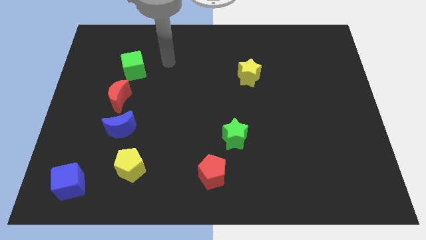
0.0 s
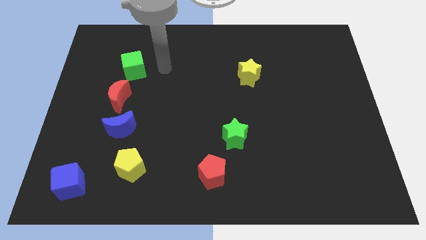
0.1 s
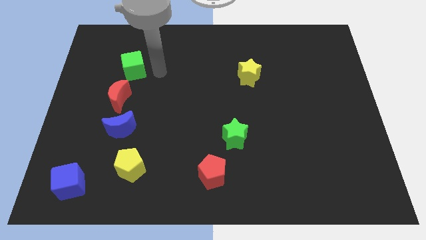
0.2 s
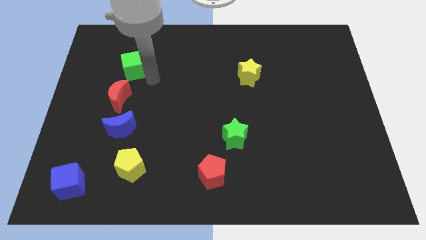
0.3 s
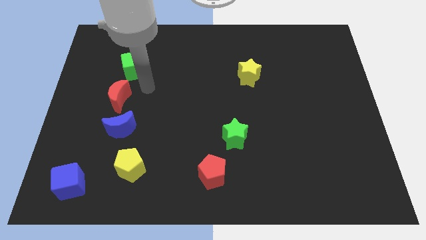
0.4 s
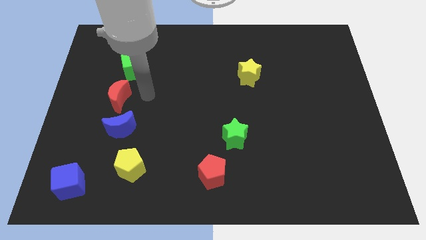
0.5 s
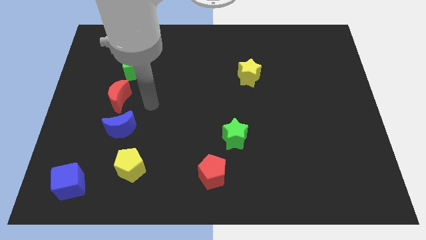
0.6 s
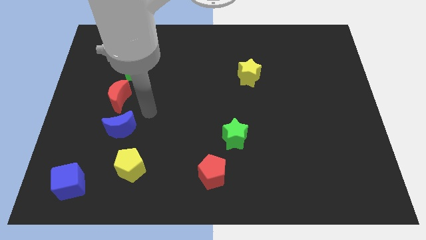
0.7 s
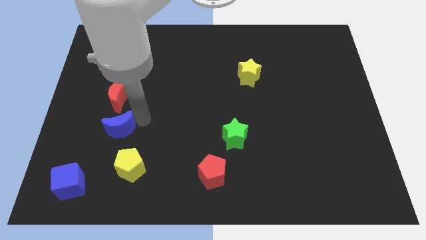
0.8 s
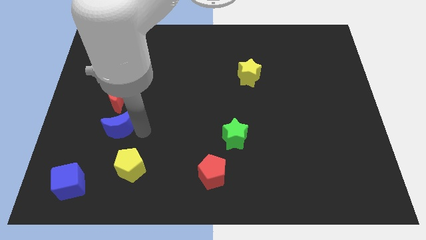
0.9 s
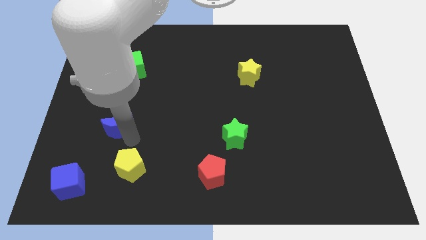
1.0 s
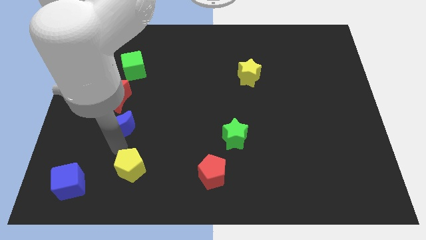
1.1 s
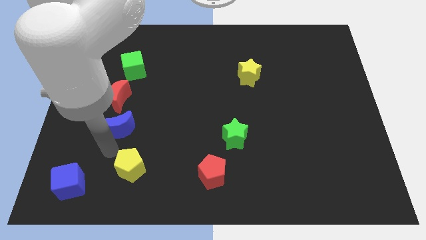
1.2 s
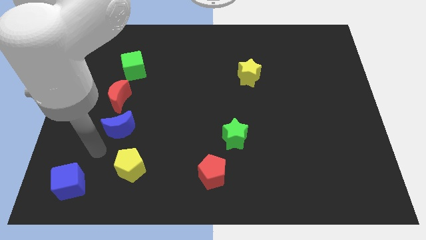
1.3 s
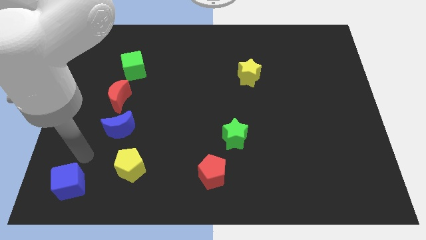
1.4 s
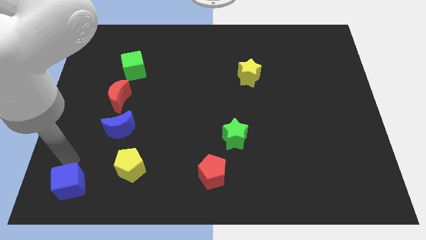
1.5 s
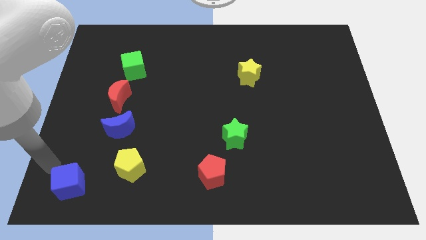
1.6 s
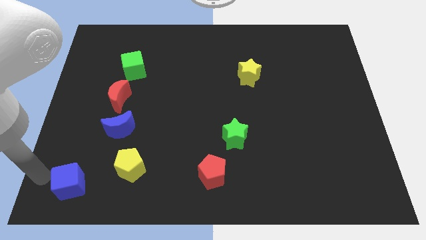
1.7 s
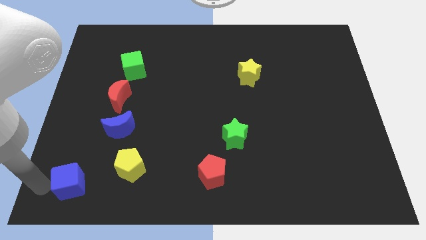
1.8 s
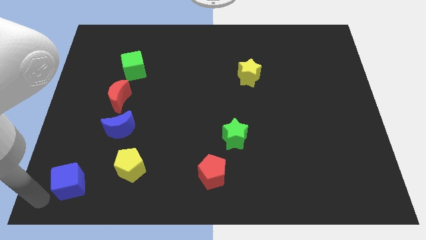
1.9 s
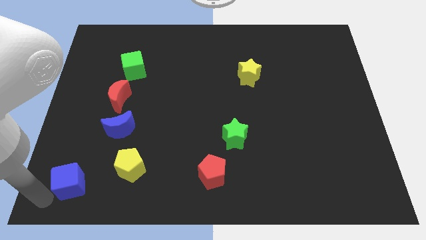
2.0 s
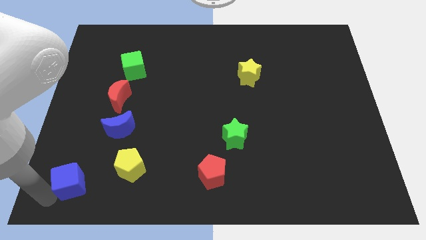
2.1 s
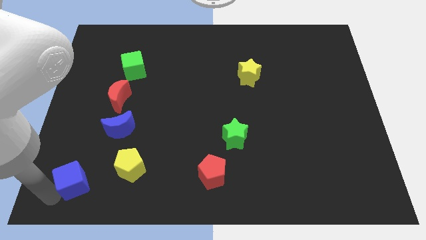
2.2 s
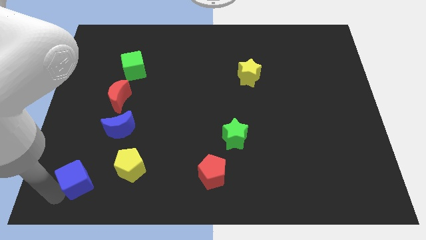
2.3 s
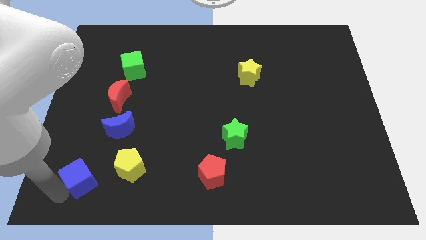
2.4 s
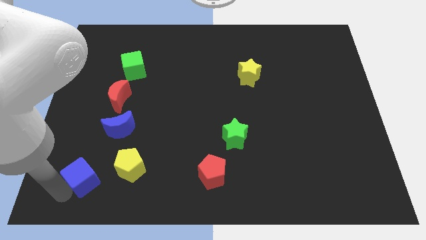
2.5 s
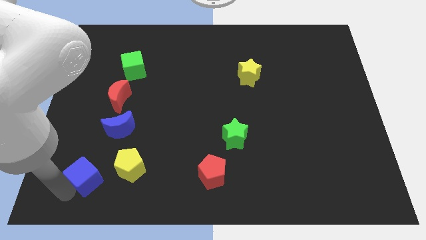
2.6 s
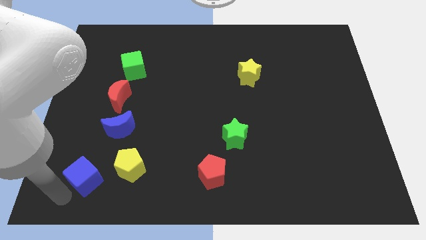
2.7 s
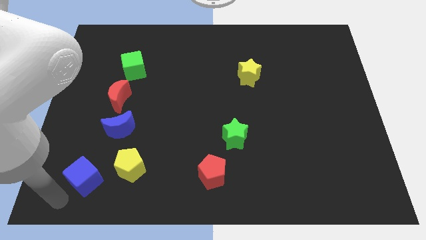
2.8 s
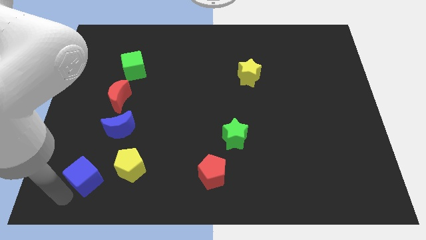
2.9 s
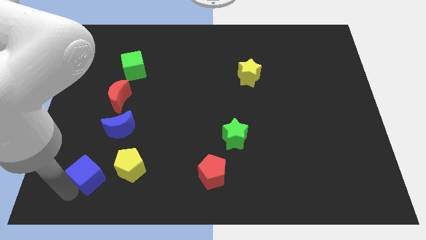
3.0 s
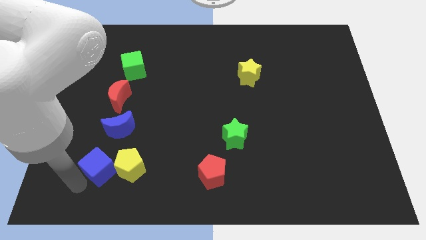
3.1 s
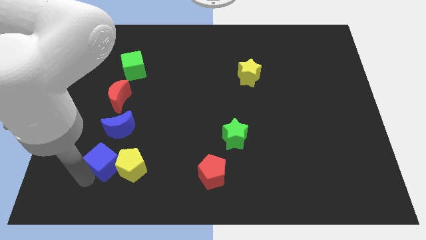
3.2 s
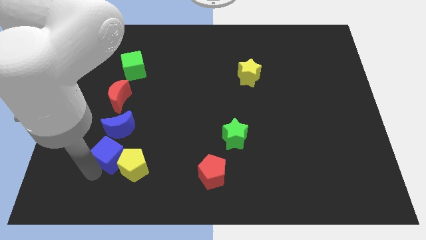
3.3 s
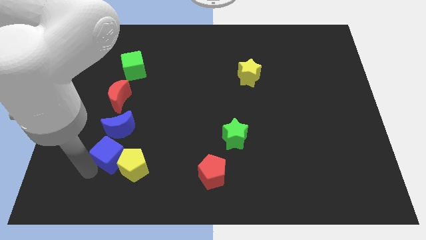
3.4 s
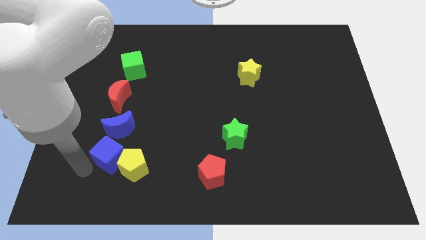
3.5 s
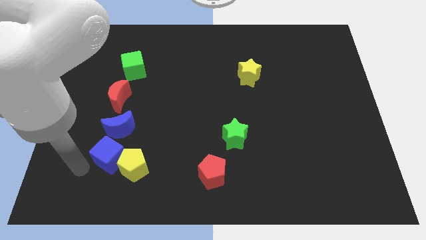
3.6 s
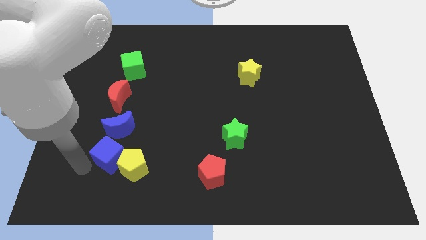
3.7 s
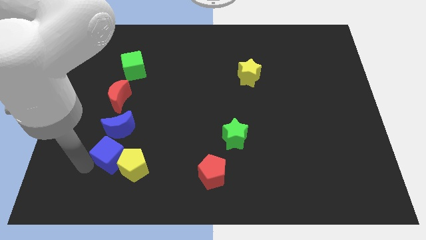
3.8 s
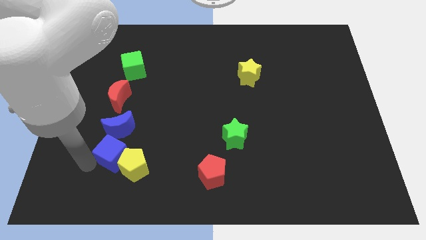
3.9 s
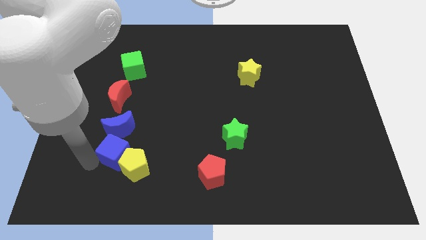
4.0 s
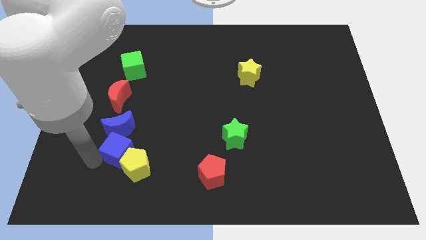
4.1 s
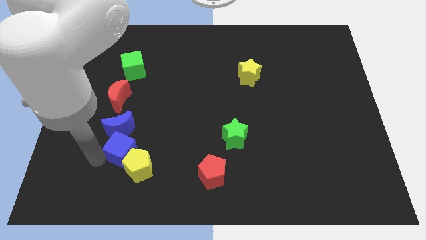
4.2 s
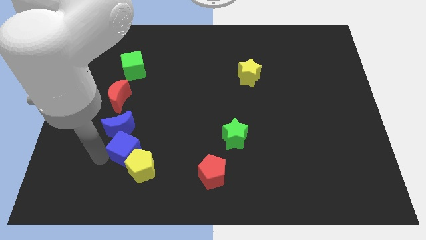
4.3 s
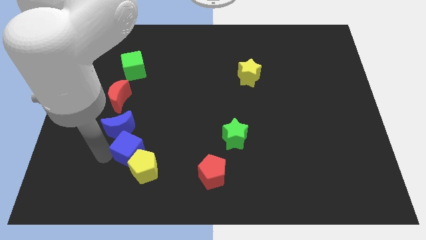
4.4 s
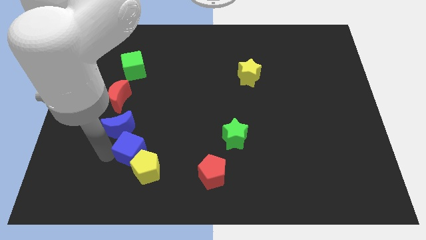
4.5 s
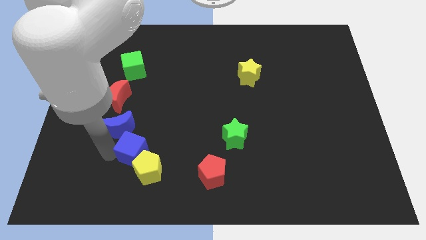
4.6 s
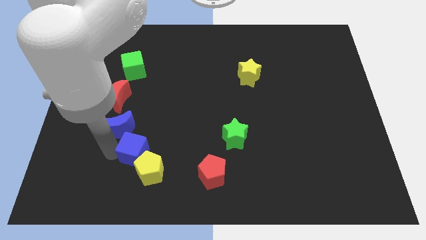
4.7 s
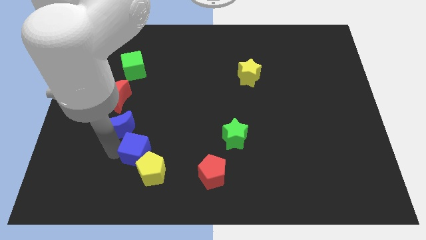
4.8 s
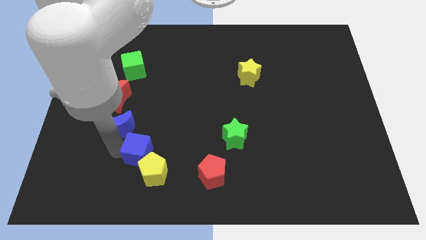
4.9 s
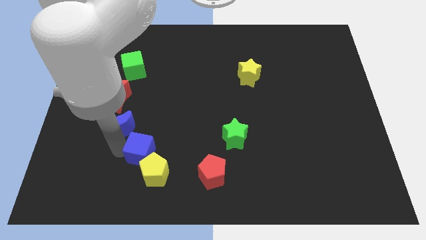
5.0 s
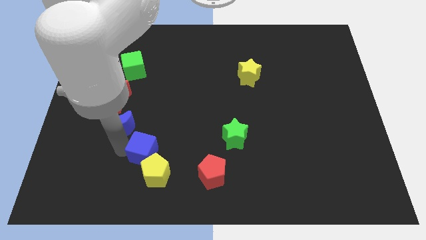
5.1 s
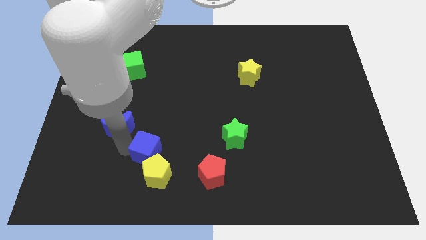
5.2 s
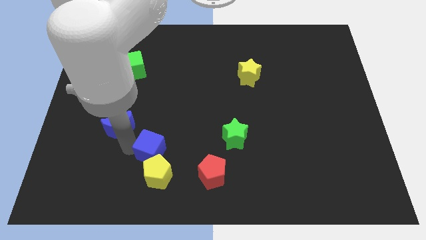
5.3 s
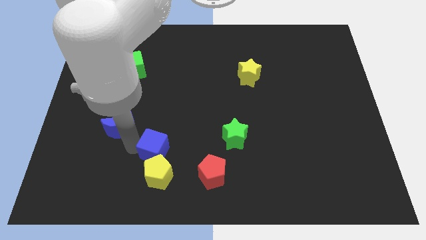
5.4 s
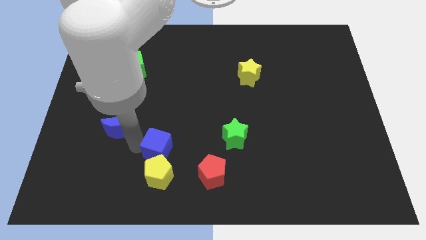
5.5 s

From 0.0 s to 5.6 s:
put the blue cube right of the blue moon

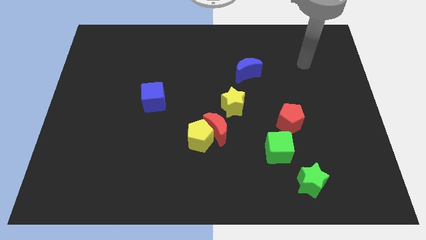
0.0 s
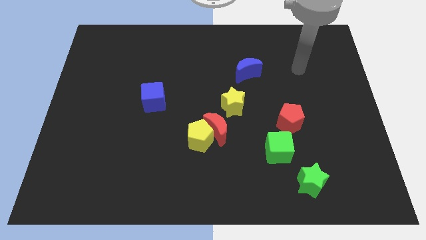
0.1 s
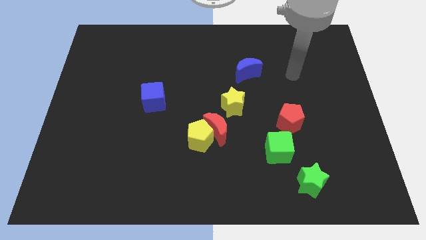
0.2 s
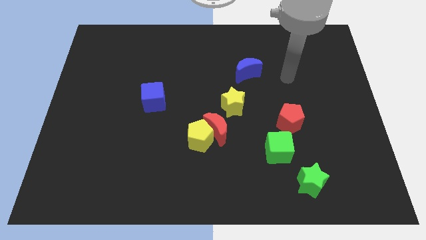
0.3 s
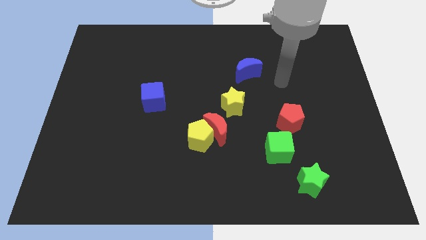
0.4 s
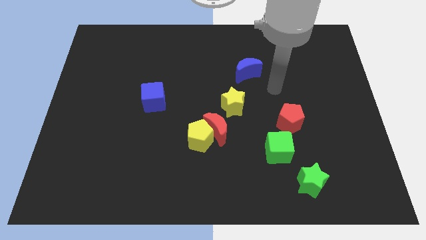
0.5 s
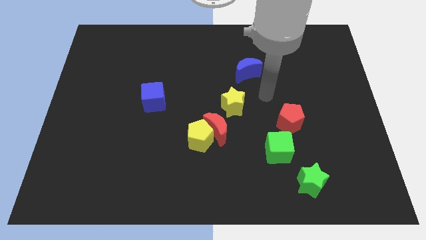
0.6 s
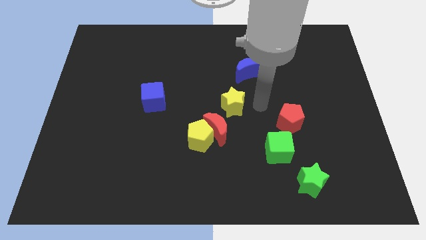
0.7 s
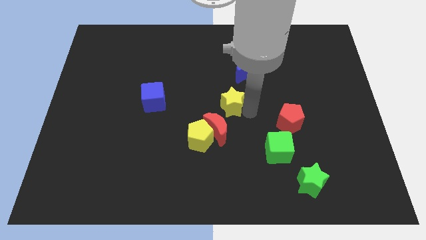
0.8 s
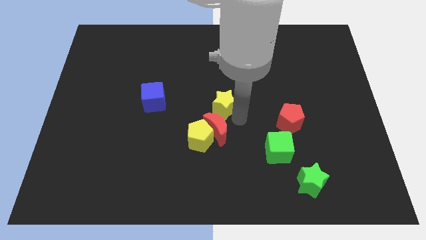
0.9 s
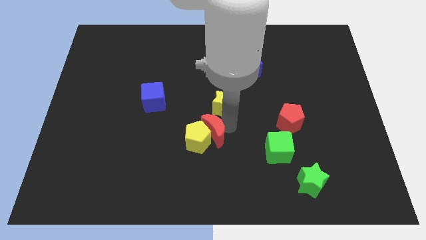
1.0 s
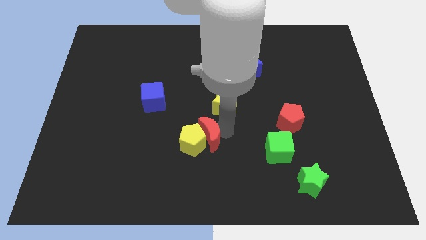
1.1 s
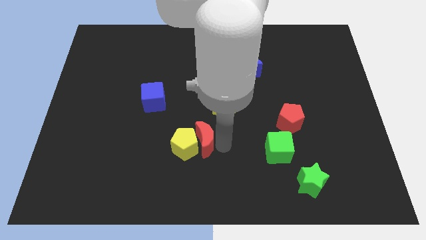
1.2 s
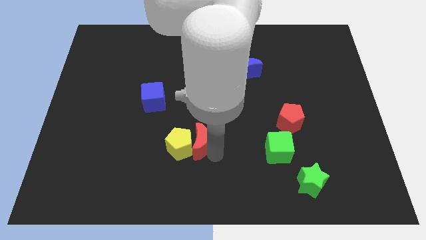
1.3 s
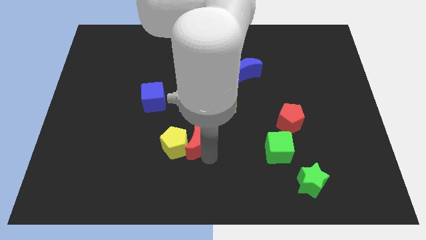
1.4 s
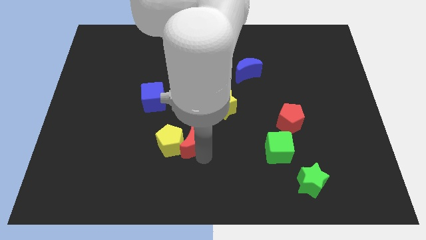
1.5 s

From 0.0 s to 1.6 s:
put the yellow pentagon to the bottom side of the blue cube
